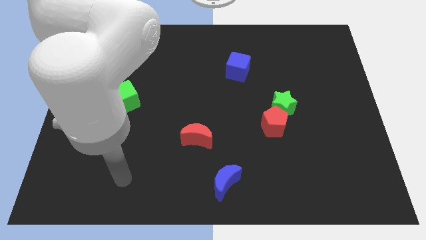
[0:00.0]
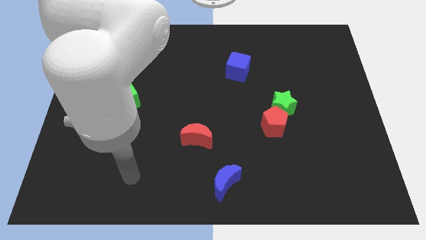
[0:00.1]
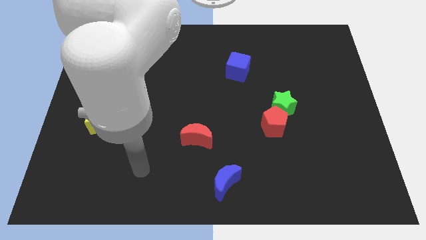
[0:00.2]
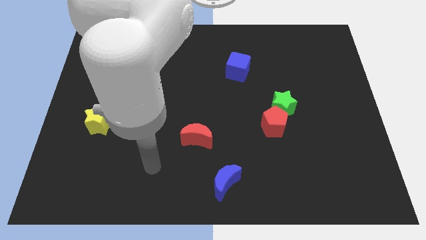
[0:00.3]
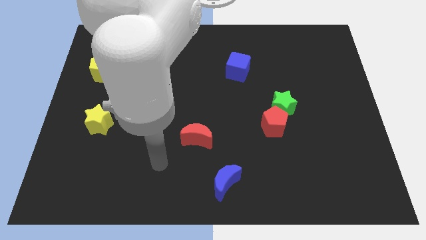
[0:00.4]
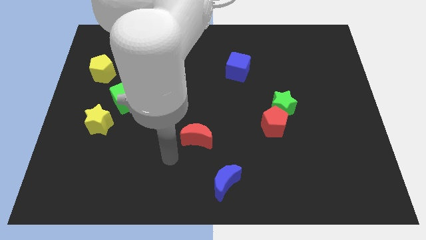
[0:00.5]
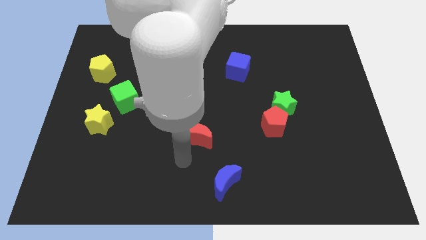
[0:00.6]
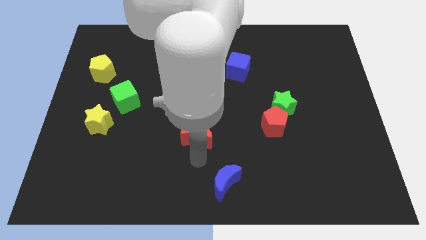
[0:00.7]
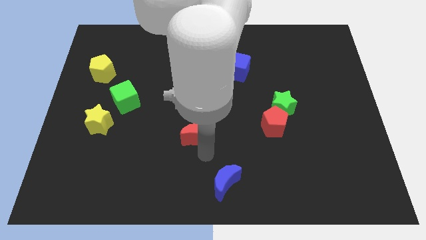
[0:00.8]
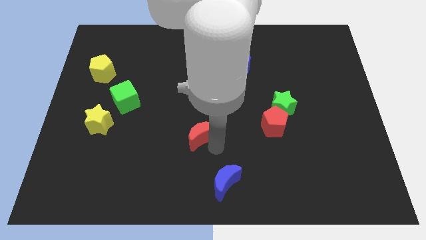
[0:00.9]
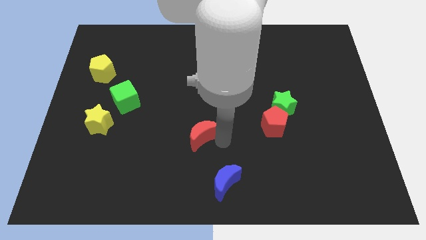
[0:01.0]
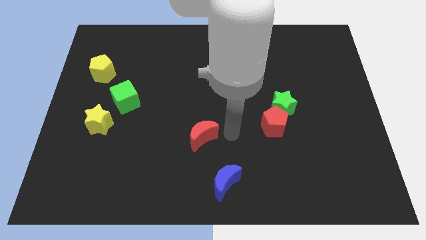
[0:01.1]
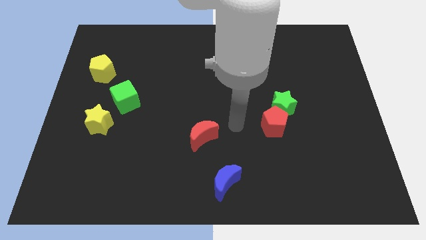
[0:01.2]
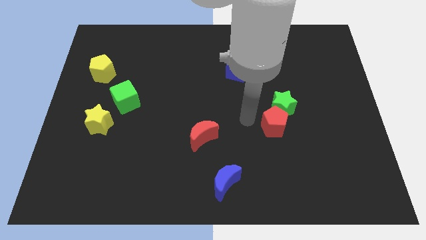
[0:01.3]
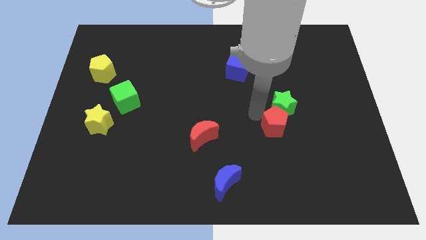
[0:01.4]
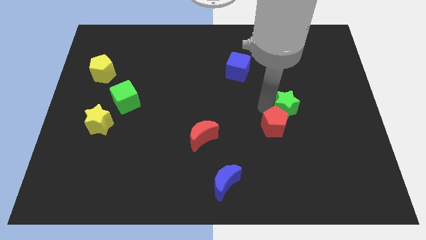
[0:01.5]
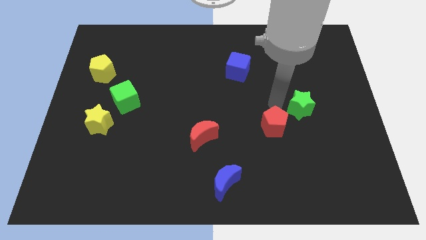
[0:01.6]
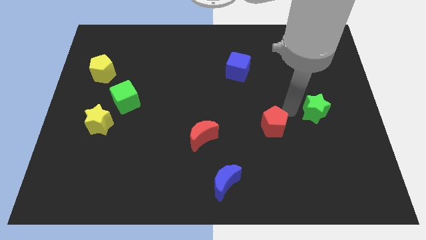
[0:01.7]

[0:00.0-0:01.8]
separate the red pentagon from the green star

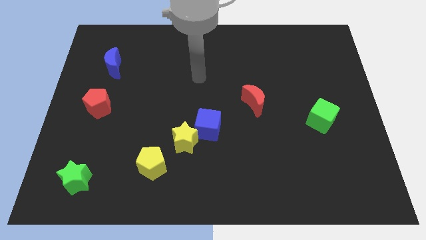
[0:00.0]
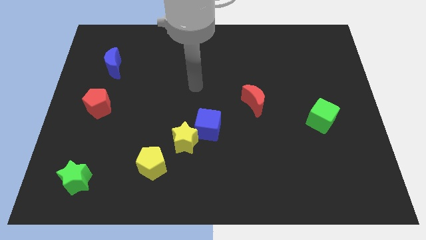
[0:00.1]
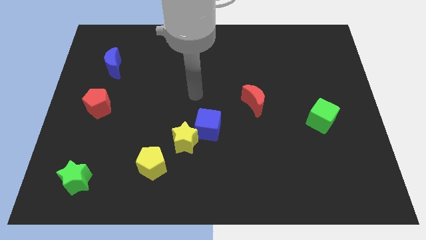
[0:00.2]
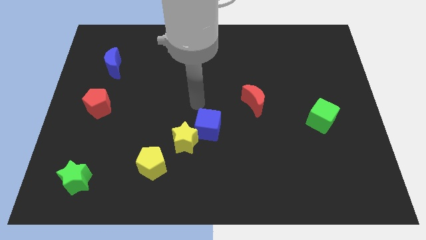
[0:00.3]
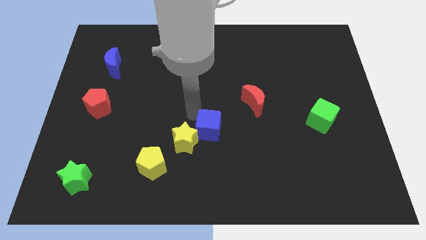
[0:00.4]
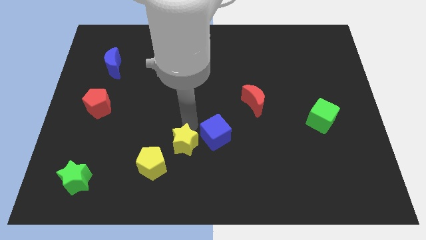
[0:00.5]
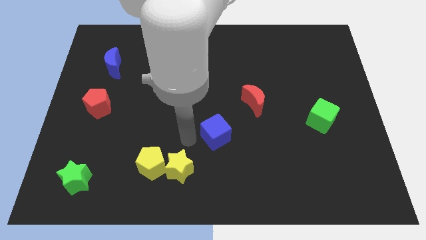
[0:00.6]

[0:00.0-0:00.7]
separate the blue cube from the yellow star

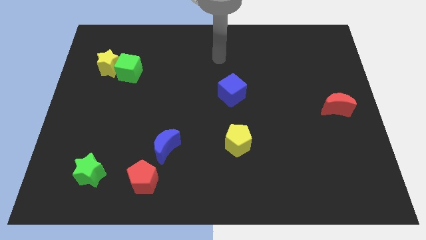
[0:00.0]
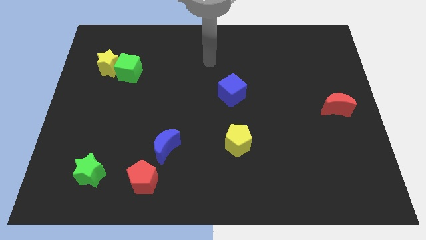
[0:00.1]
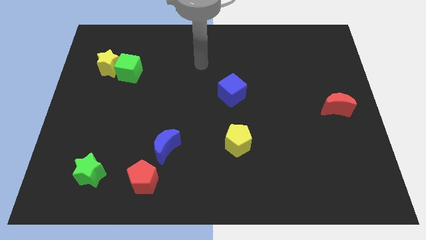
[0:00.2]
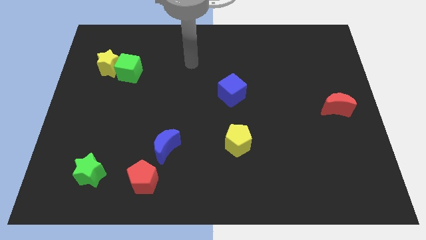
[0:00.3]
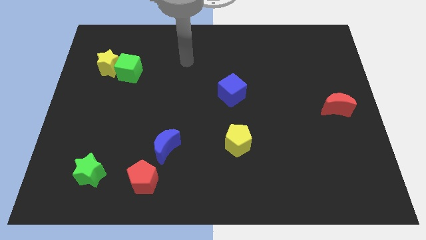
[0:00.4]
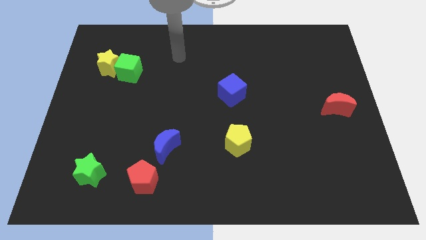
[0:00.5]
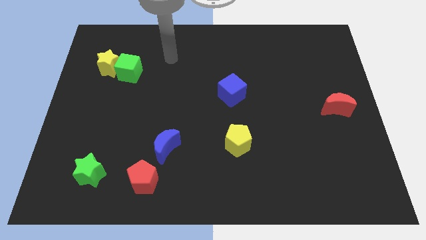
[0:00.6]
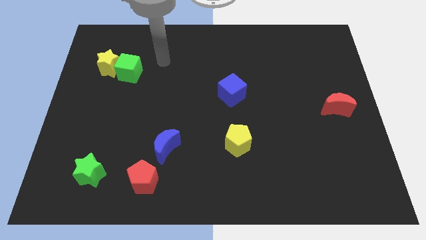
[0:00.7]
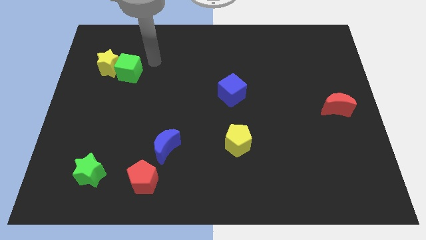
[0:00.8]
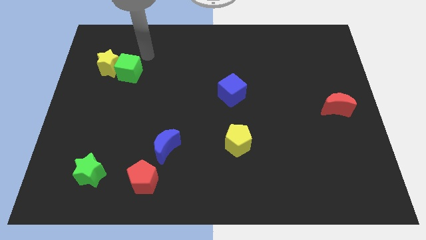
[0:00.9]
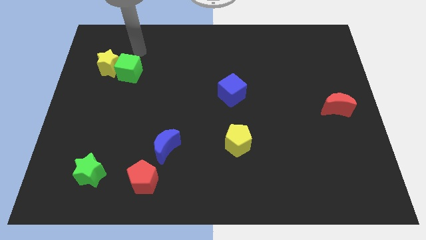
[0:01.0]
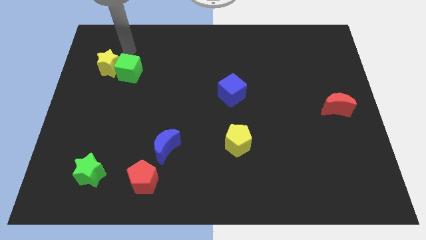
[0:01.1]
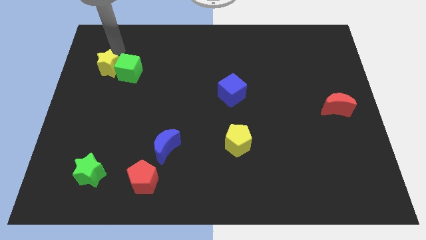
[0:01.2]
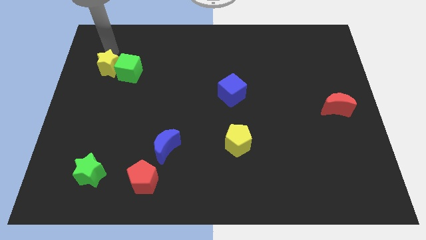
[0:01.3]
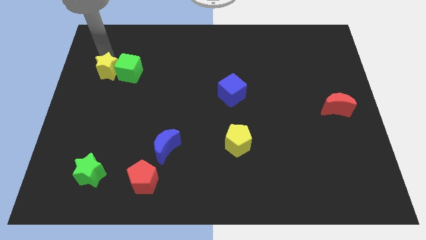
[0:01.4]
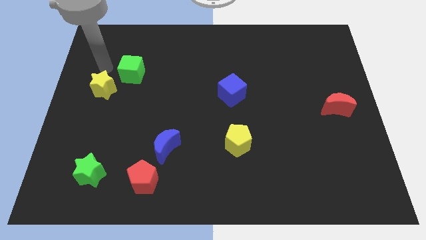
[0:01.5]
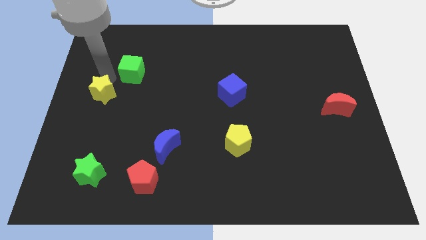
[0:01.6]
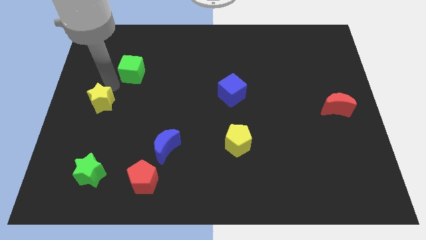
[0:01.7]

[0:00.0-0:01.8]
pull the green cube apart from the yellow star

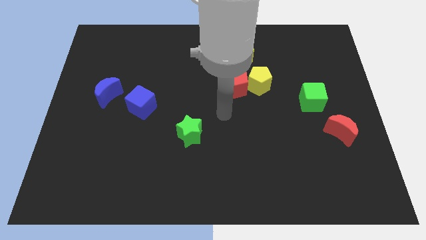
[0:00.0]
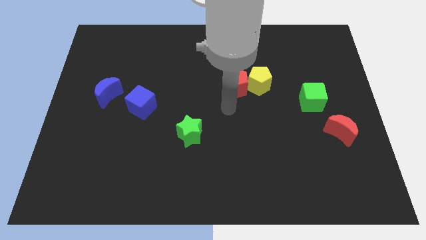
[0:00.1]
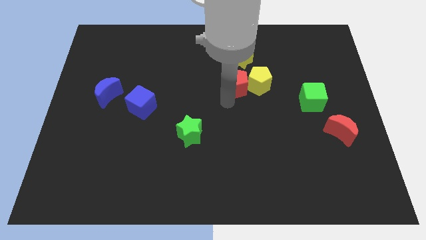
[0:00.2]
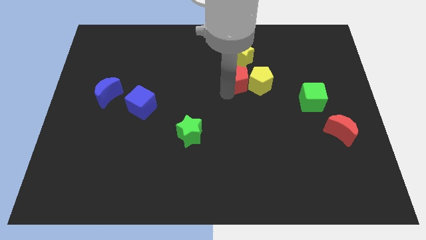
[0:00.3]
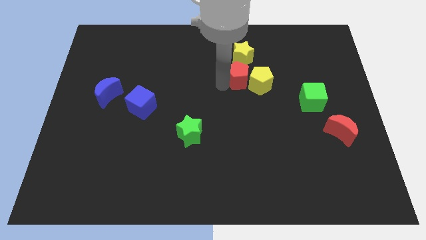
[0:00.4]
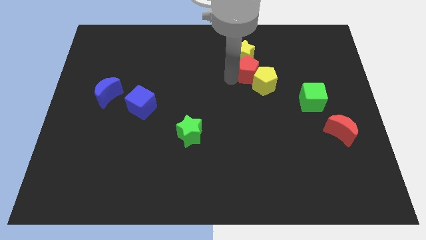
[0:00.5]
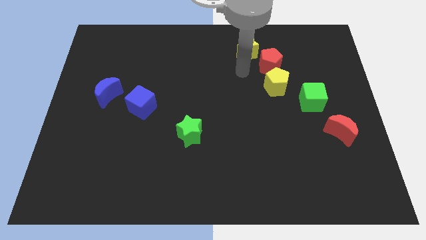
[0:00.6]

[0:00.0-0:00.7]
pull the yellow pentagon apart from the red pentagon and yellow star

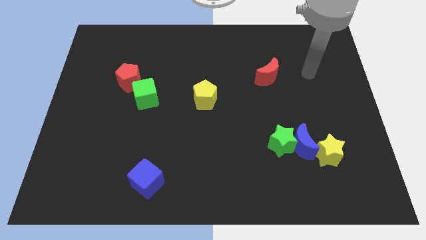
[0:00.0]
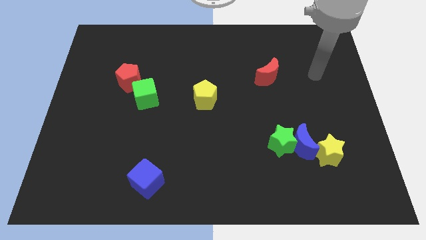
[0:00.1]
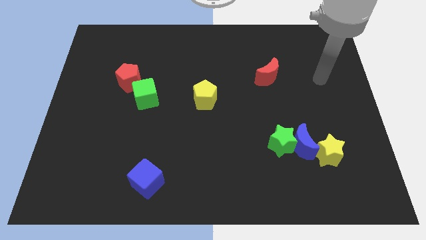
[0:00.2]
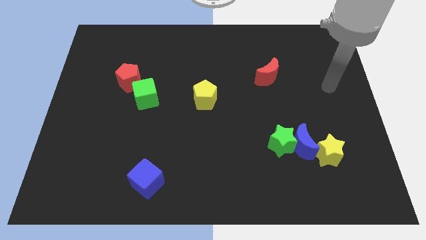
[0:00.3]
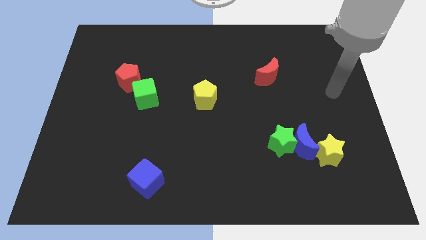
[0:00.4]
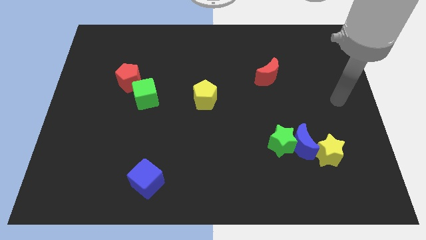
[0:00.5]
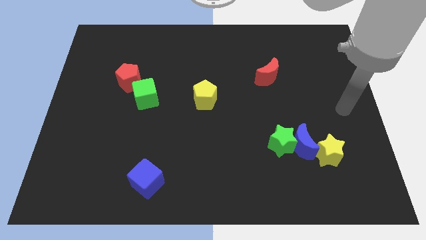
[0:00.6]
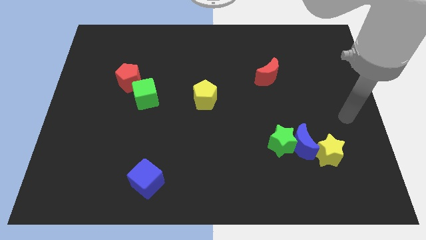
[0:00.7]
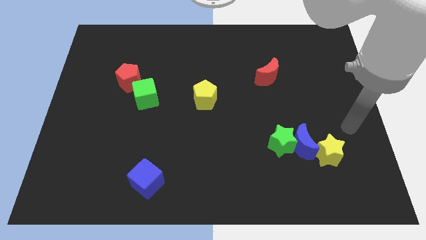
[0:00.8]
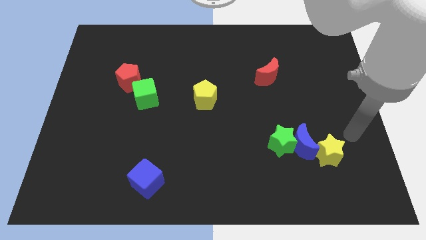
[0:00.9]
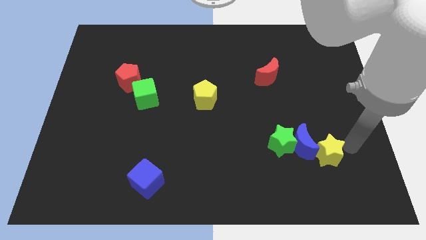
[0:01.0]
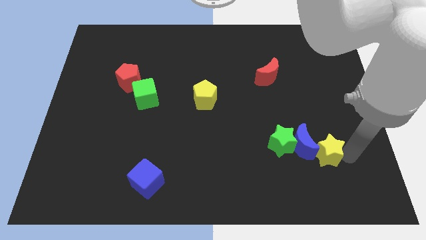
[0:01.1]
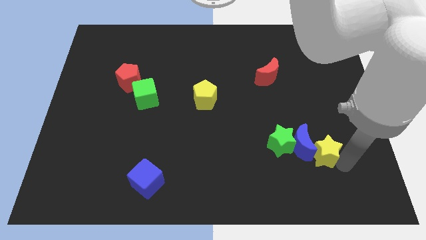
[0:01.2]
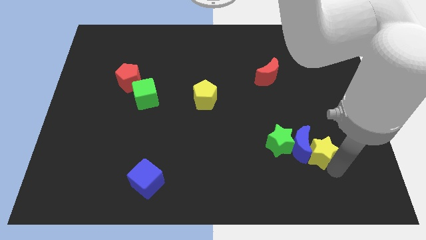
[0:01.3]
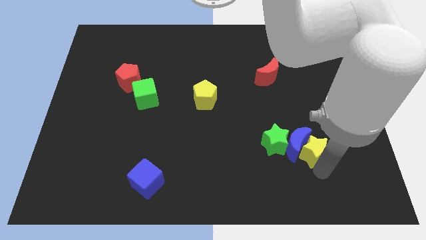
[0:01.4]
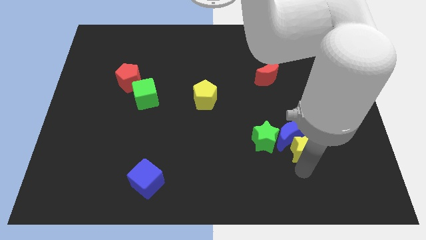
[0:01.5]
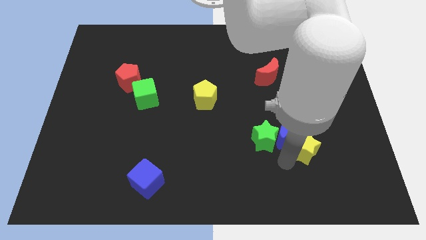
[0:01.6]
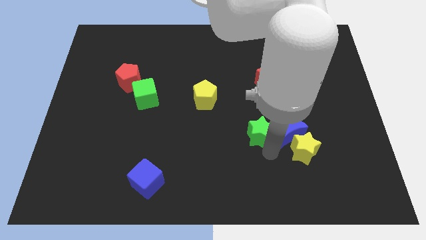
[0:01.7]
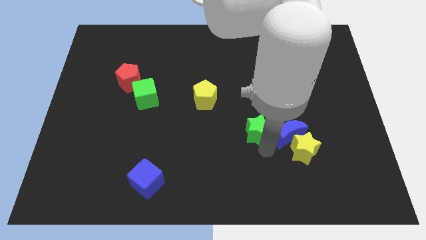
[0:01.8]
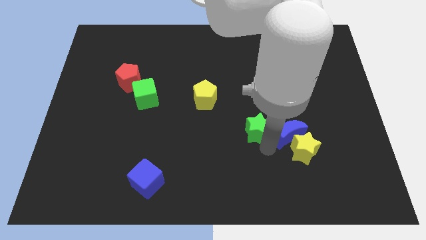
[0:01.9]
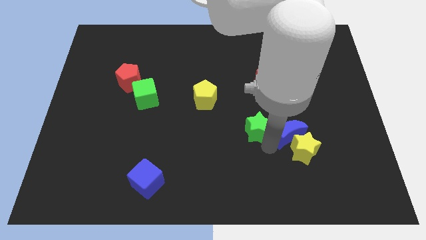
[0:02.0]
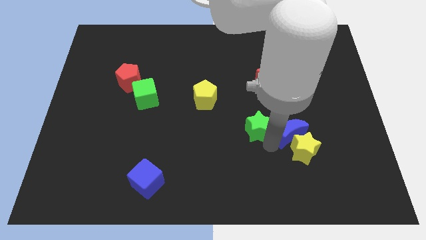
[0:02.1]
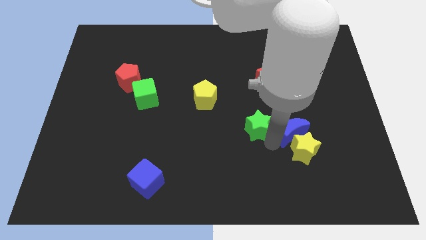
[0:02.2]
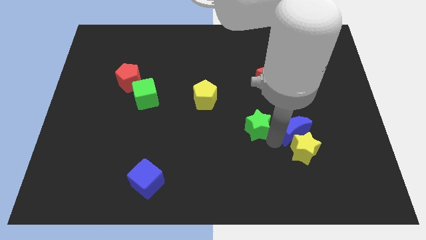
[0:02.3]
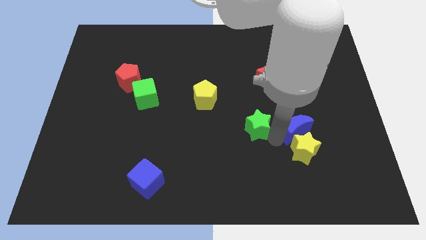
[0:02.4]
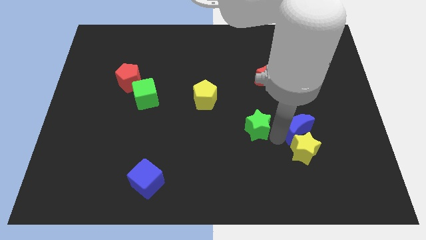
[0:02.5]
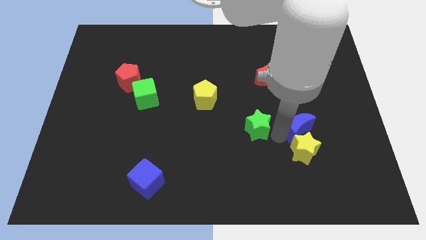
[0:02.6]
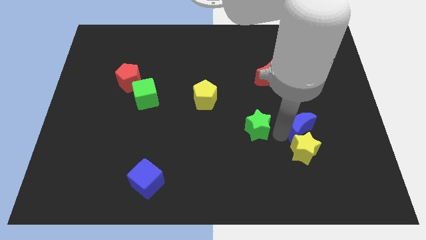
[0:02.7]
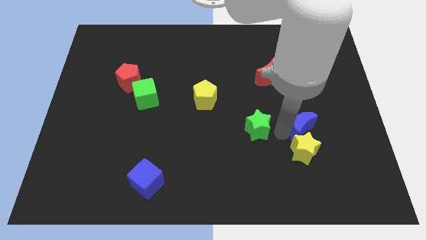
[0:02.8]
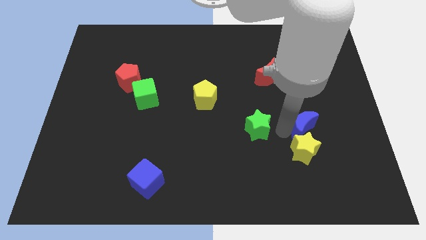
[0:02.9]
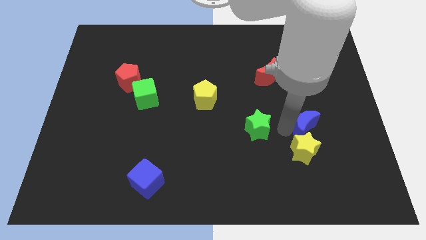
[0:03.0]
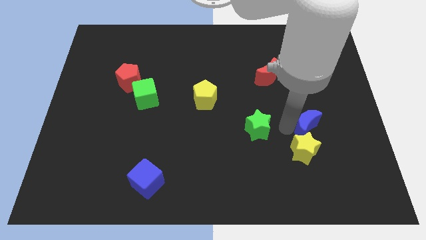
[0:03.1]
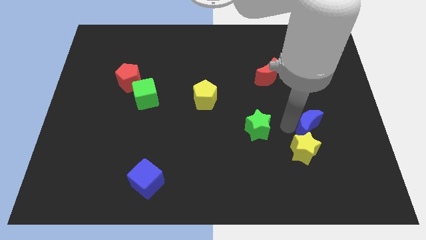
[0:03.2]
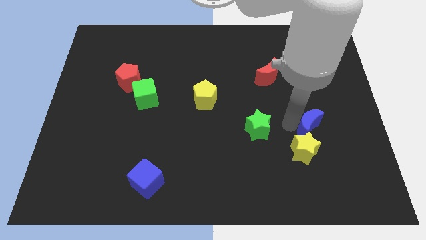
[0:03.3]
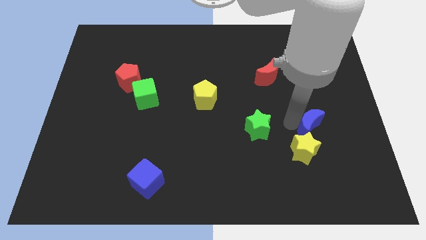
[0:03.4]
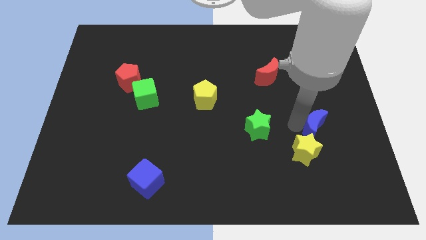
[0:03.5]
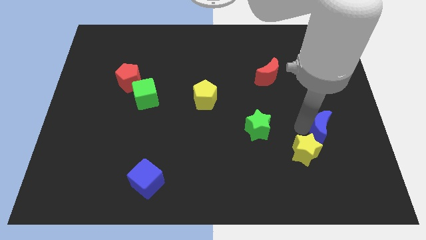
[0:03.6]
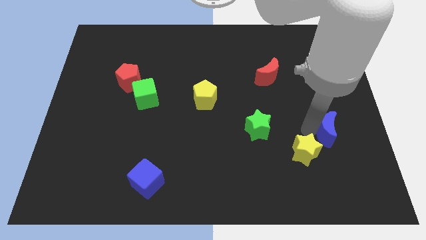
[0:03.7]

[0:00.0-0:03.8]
separate the blue moon from the green star and yellow star

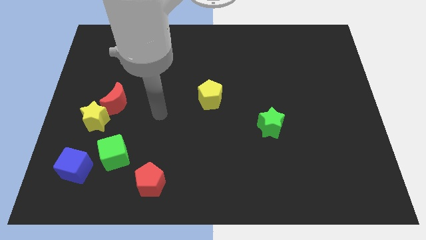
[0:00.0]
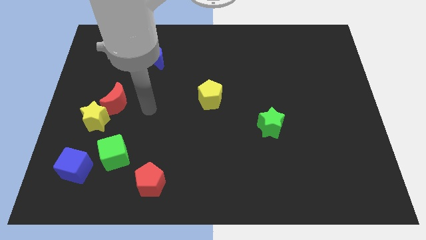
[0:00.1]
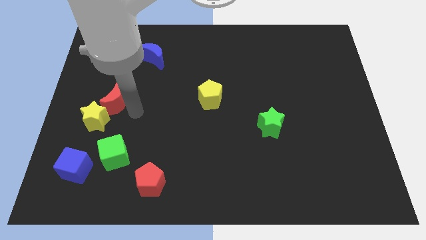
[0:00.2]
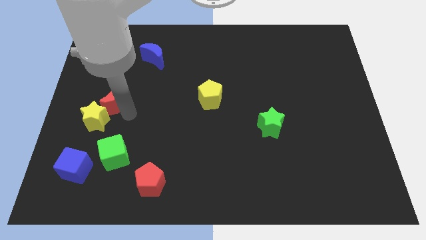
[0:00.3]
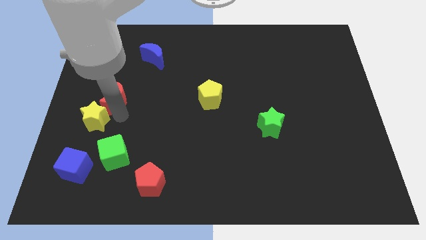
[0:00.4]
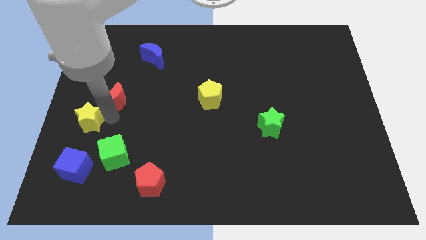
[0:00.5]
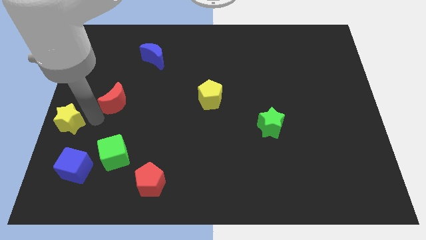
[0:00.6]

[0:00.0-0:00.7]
separate the red moon from the yellow star
